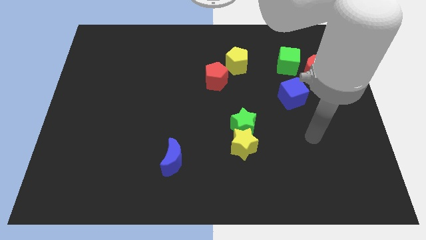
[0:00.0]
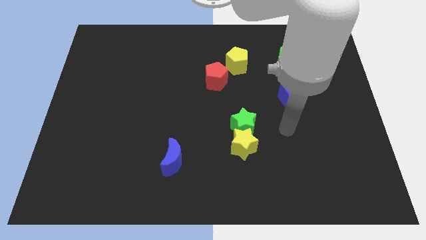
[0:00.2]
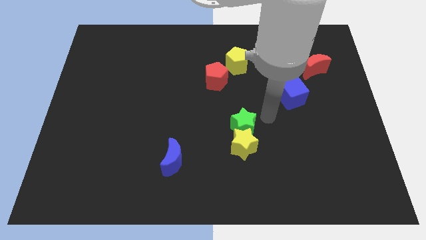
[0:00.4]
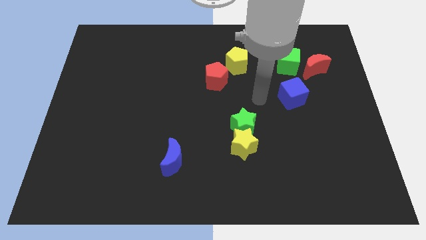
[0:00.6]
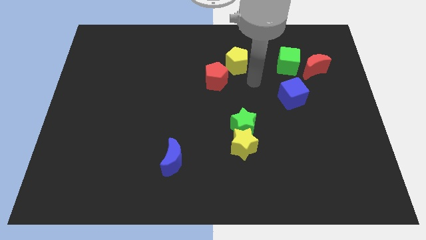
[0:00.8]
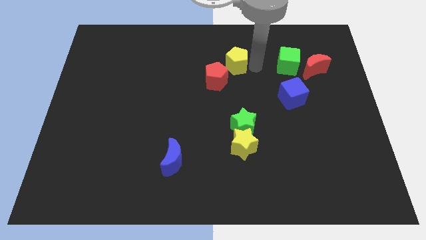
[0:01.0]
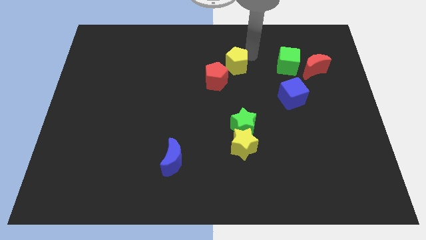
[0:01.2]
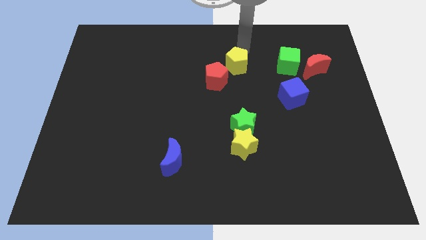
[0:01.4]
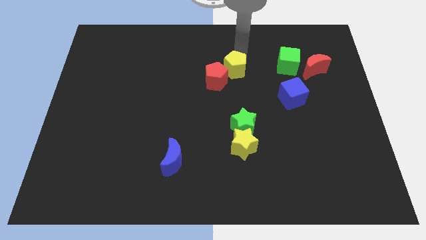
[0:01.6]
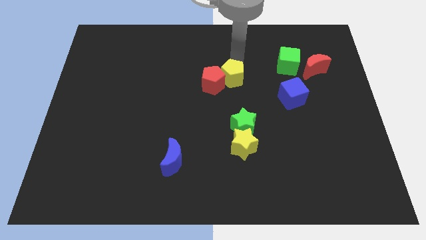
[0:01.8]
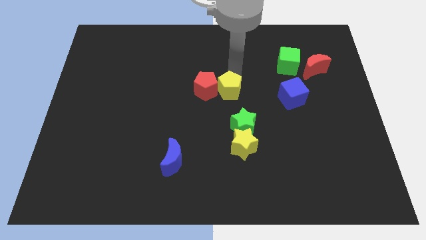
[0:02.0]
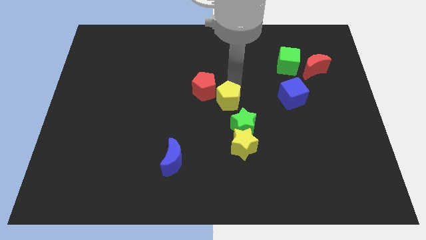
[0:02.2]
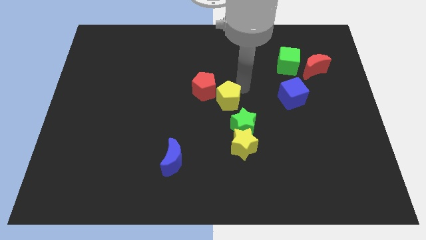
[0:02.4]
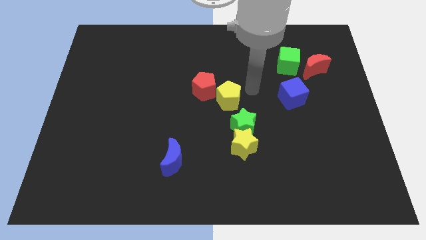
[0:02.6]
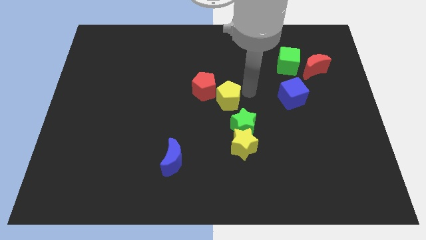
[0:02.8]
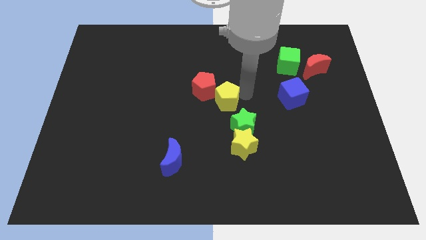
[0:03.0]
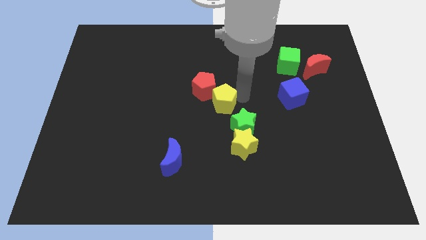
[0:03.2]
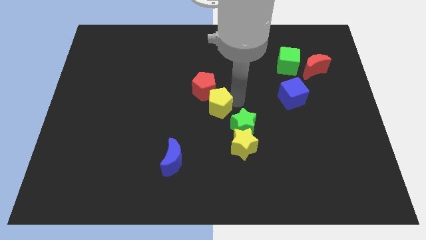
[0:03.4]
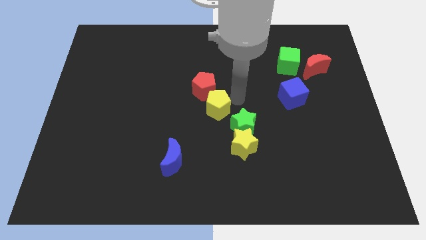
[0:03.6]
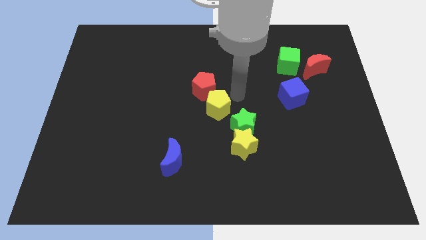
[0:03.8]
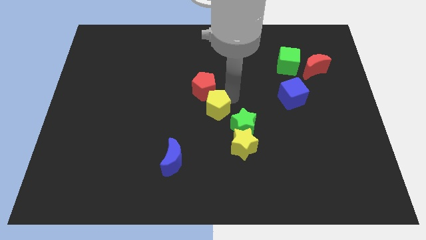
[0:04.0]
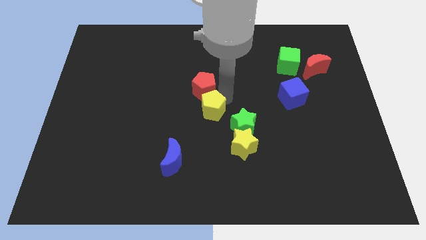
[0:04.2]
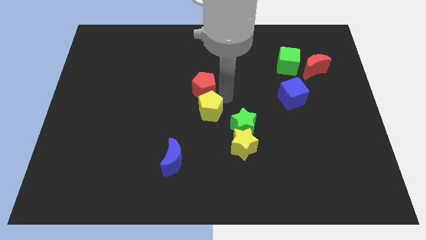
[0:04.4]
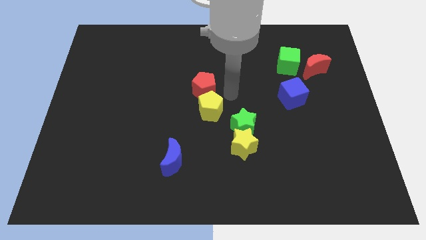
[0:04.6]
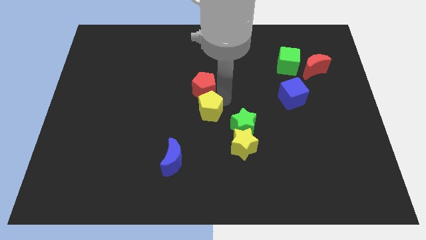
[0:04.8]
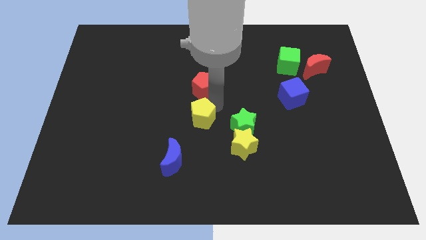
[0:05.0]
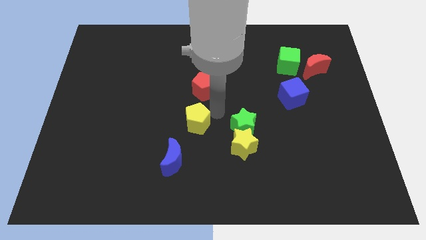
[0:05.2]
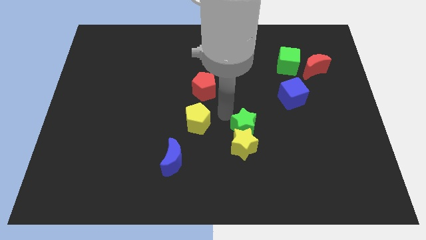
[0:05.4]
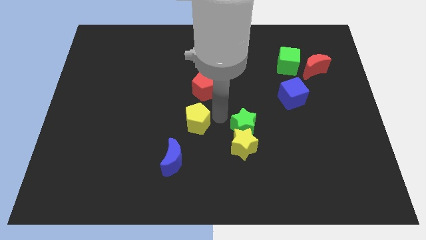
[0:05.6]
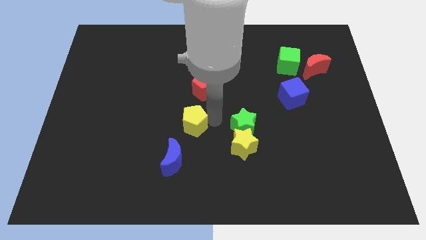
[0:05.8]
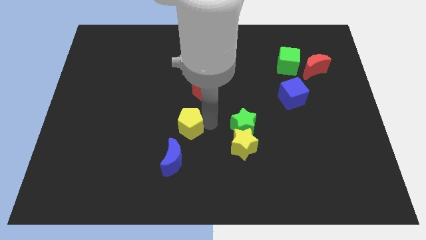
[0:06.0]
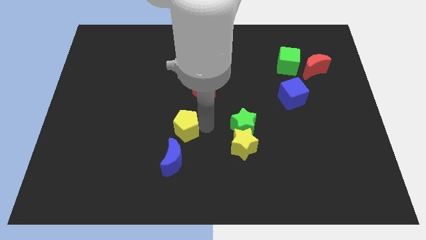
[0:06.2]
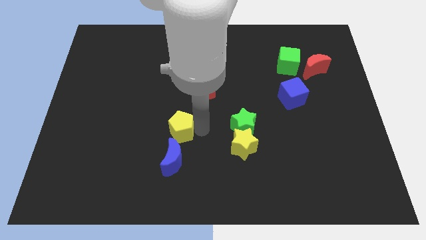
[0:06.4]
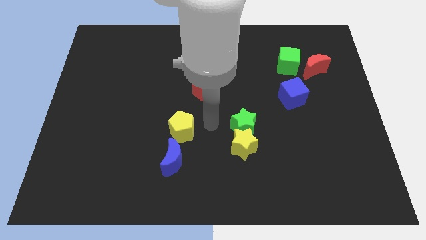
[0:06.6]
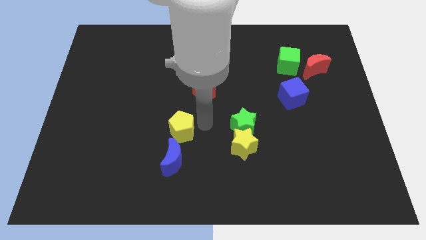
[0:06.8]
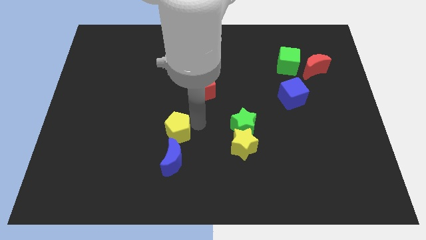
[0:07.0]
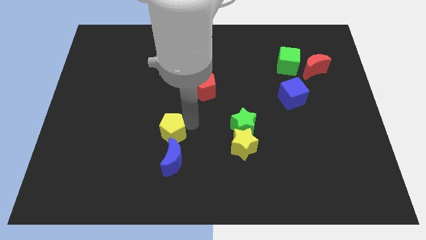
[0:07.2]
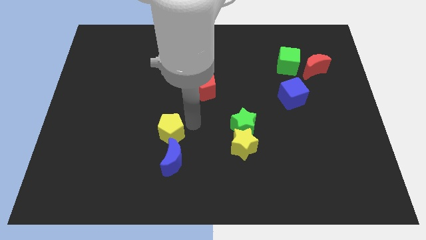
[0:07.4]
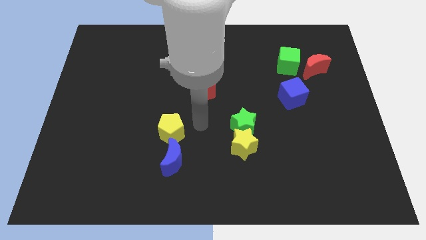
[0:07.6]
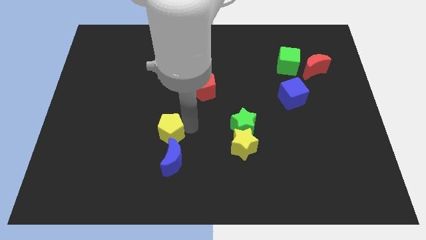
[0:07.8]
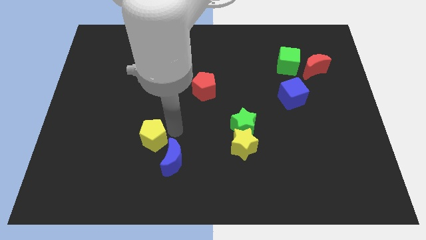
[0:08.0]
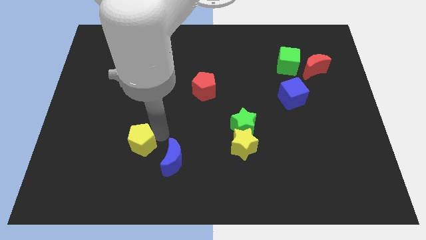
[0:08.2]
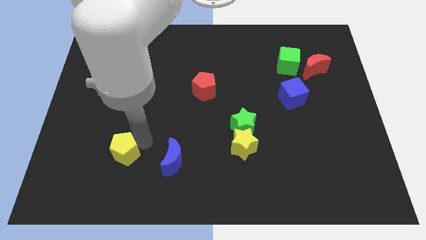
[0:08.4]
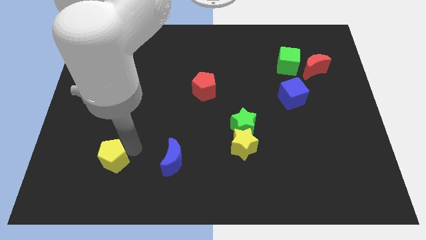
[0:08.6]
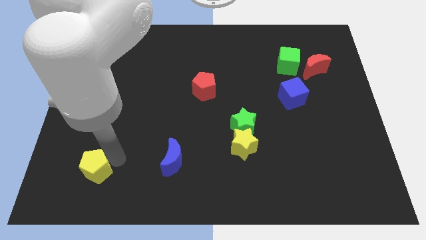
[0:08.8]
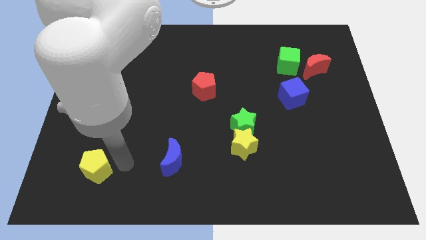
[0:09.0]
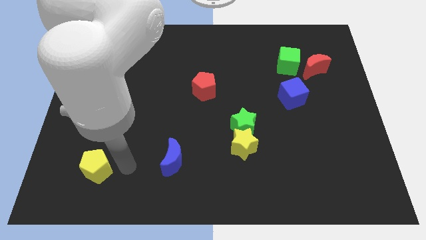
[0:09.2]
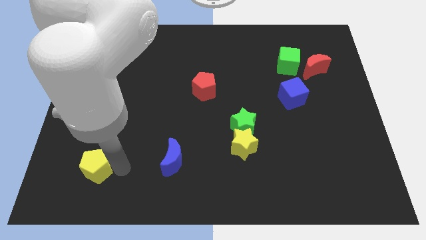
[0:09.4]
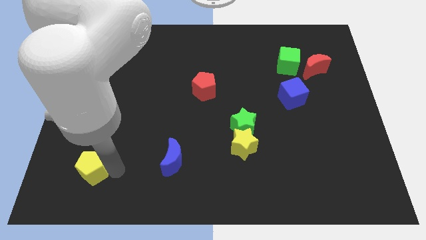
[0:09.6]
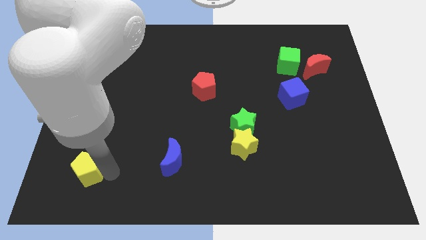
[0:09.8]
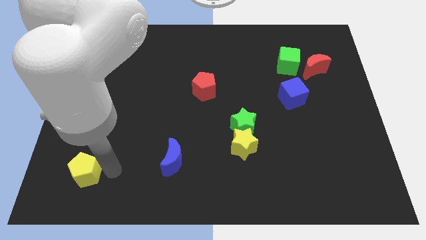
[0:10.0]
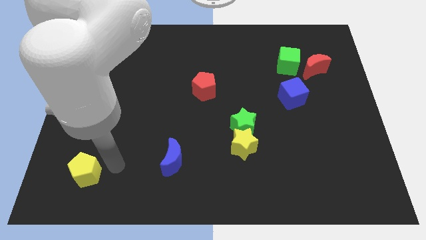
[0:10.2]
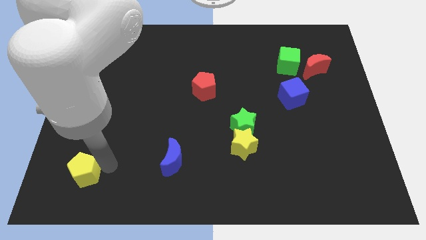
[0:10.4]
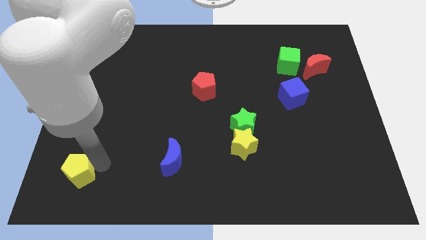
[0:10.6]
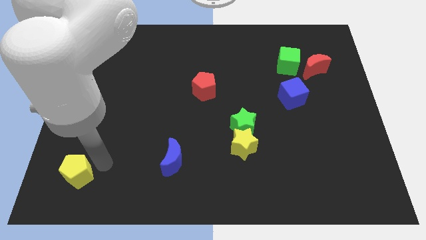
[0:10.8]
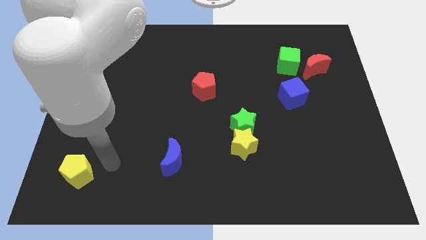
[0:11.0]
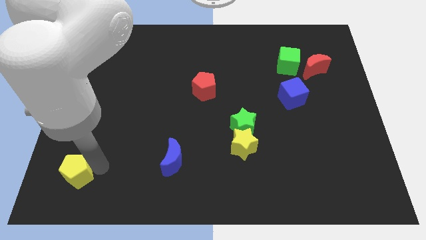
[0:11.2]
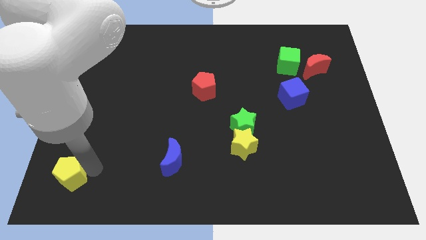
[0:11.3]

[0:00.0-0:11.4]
put the yellow pentagon to the bottom left corner

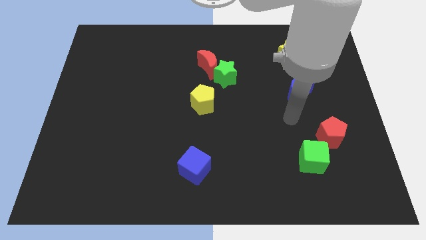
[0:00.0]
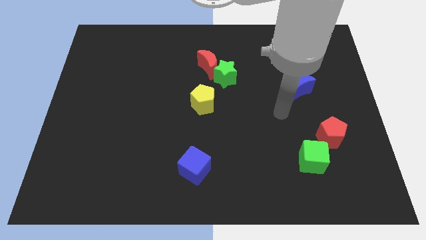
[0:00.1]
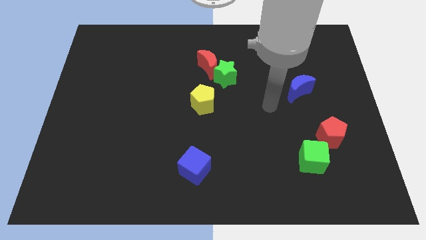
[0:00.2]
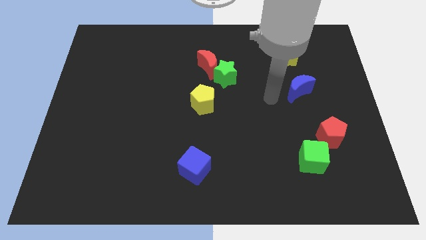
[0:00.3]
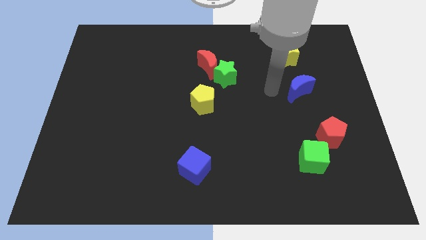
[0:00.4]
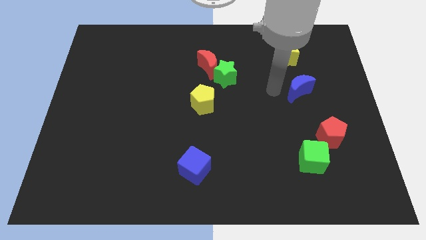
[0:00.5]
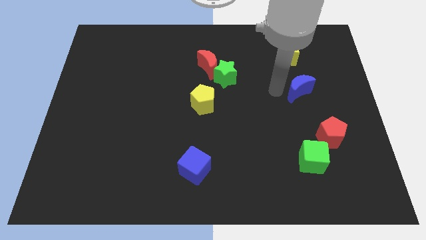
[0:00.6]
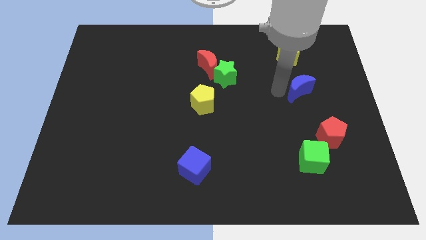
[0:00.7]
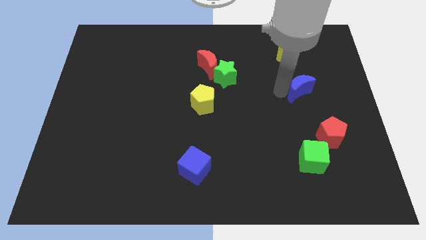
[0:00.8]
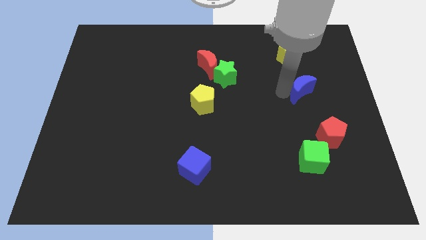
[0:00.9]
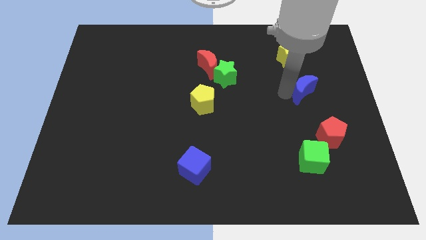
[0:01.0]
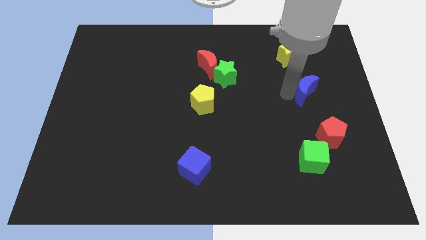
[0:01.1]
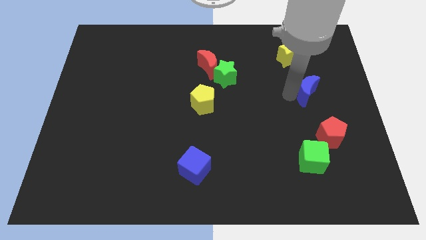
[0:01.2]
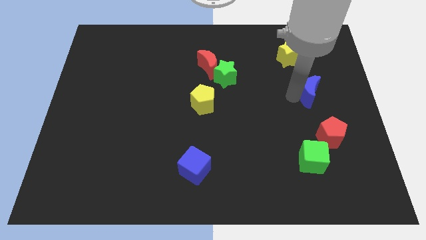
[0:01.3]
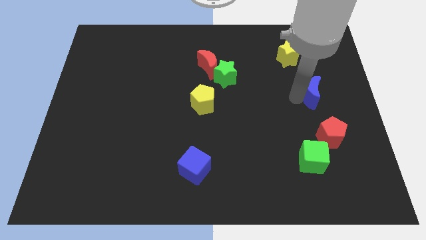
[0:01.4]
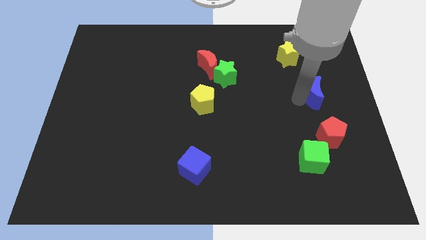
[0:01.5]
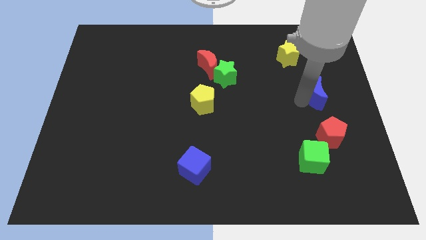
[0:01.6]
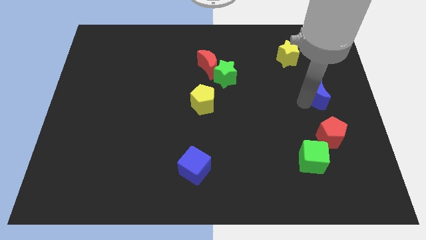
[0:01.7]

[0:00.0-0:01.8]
push the blue moon to the right side of the board
